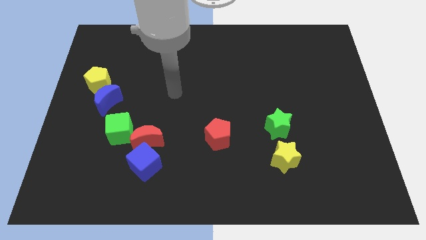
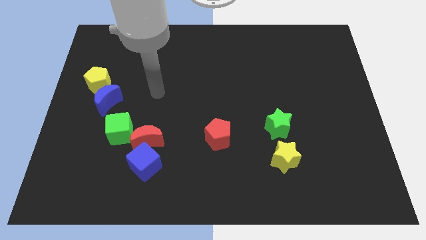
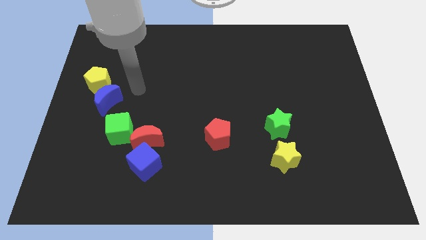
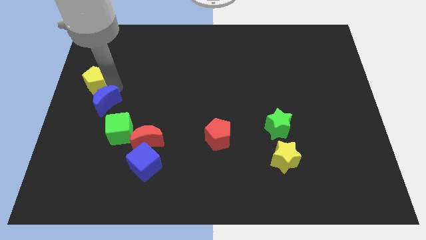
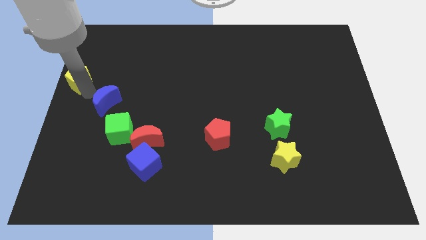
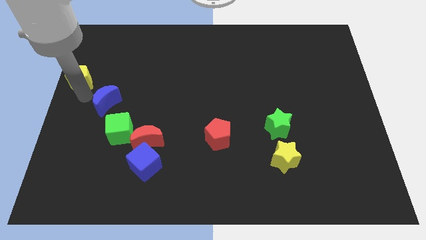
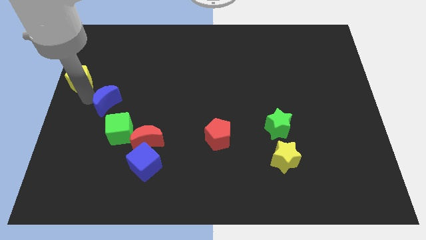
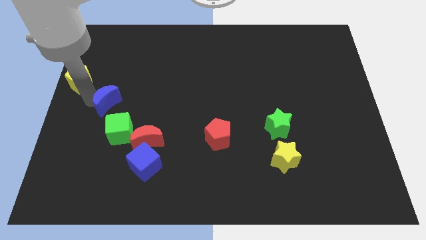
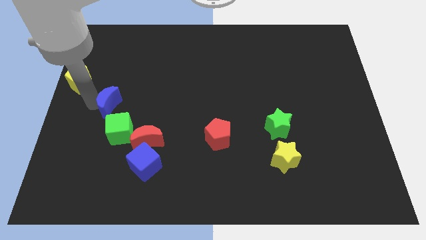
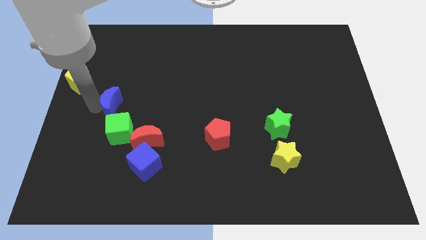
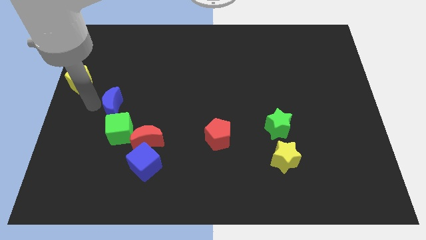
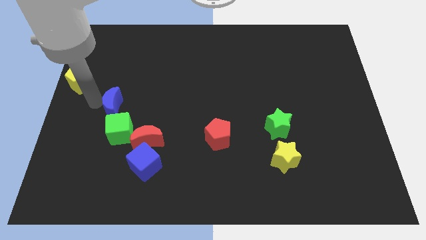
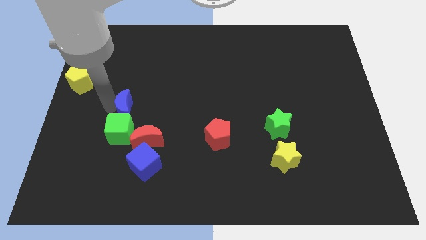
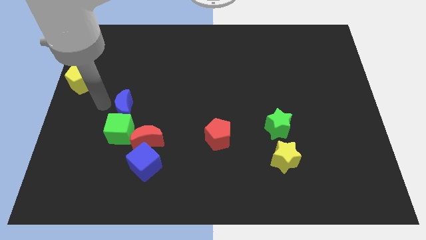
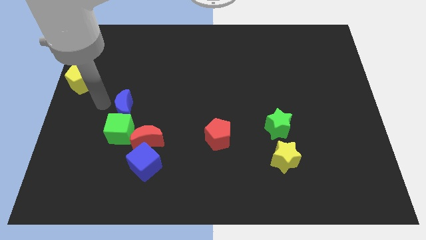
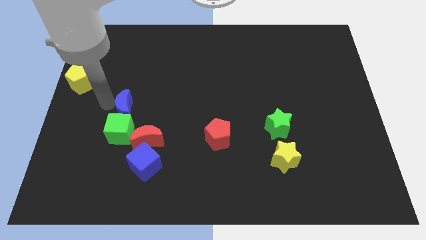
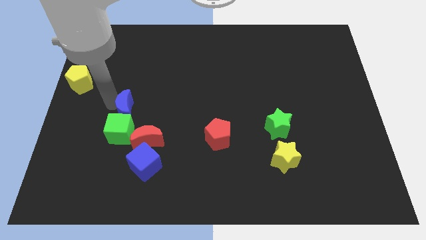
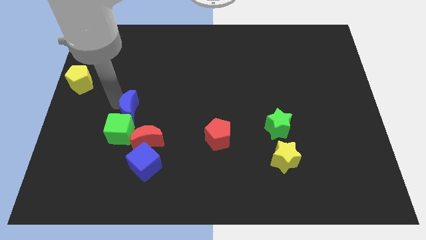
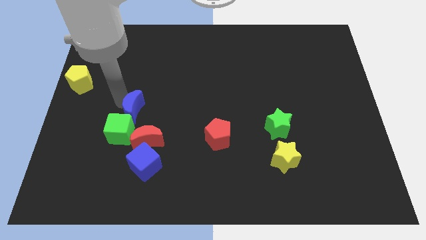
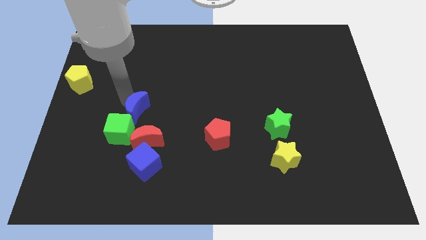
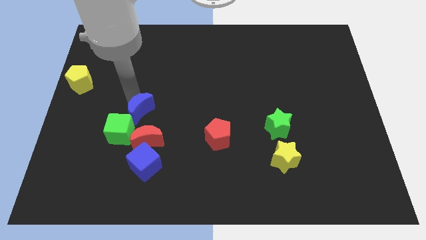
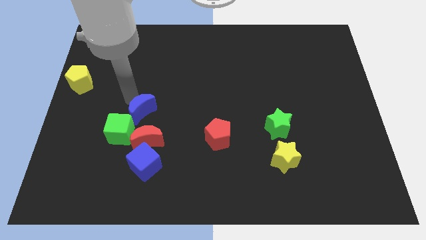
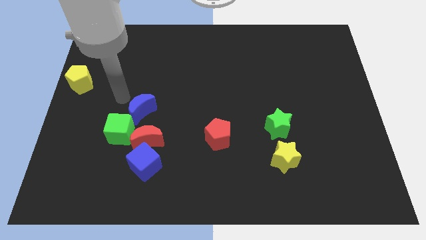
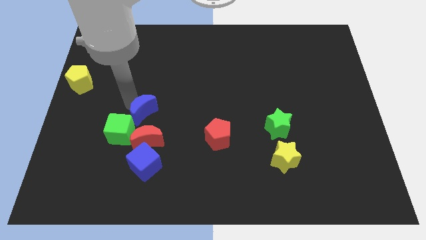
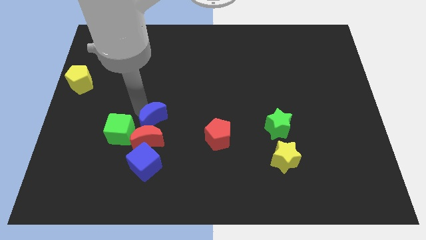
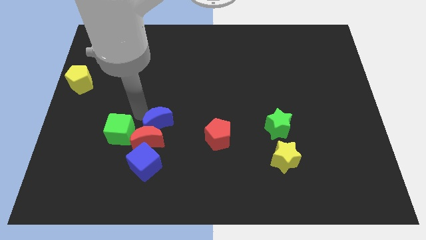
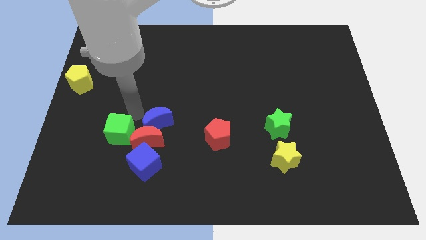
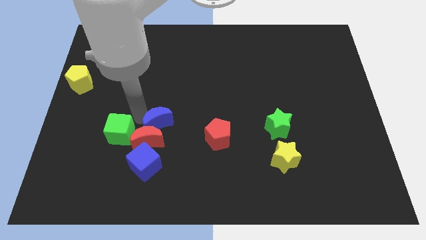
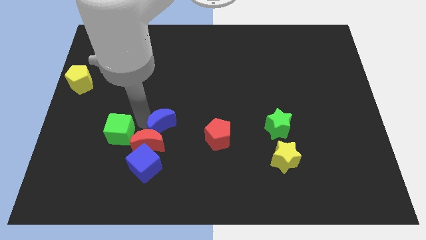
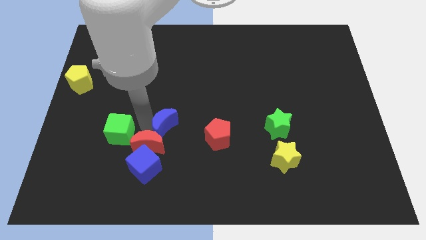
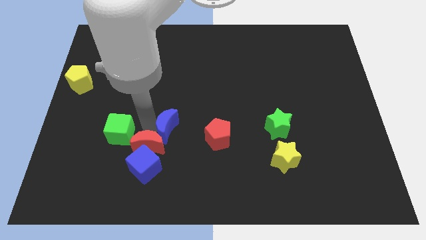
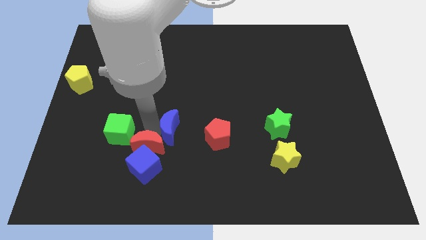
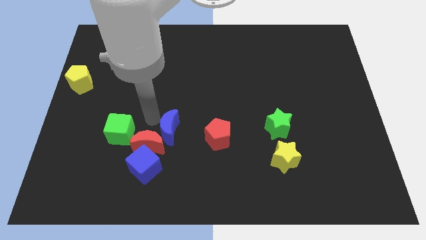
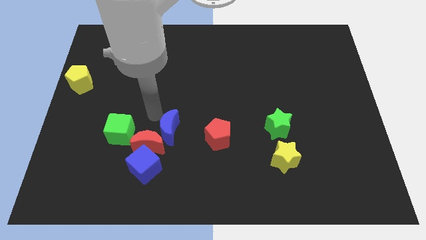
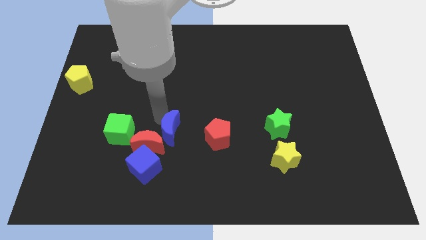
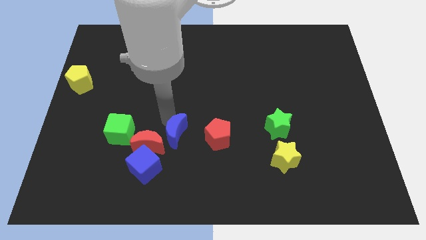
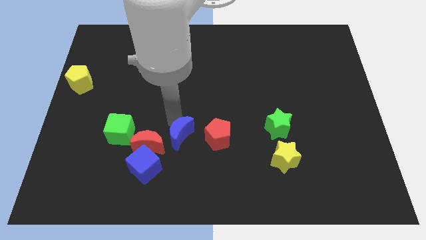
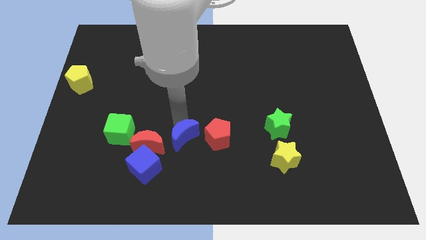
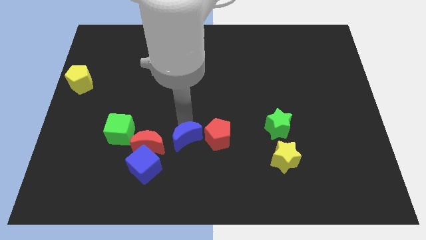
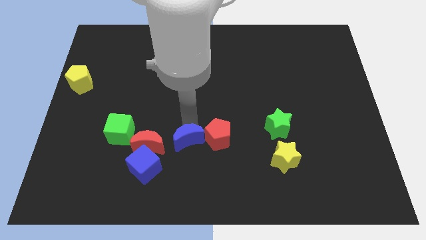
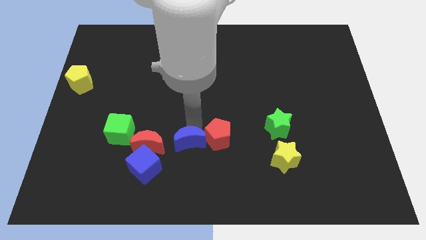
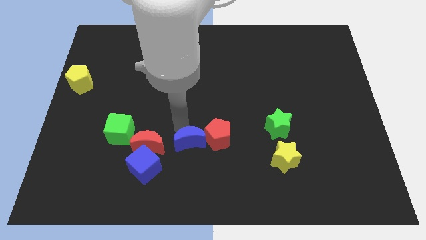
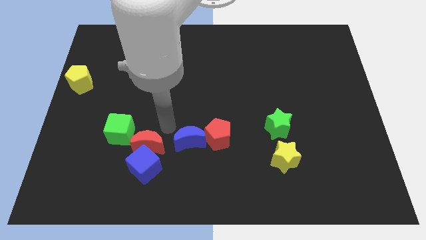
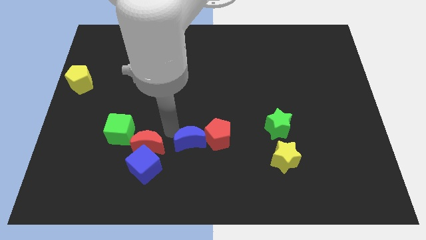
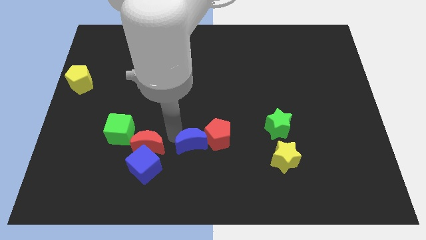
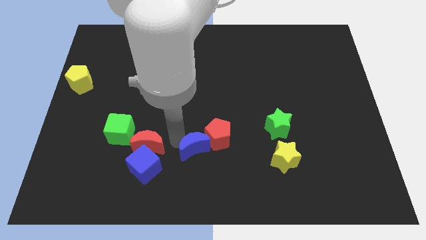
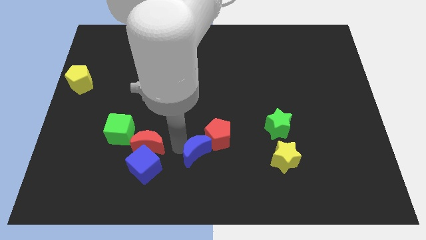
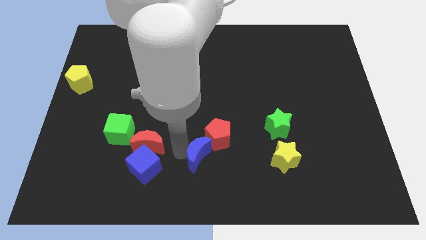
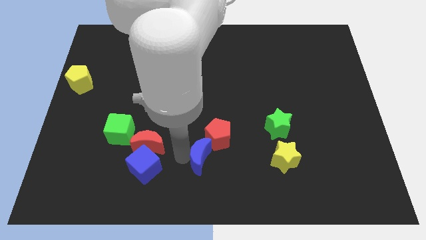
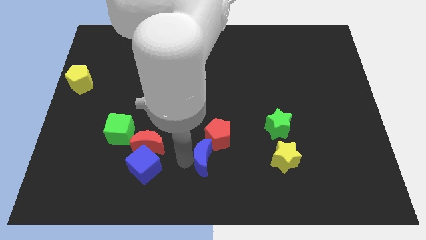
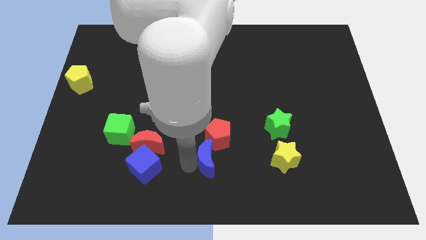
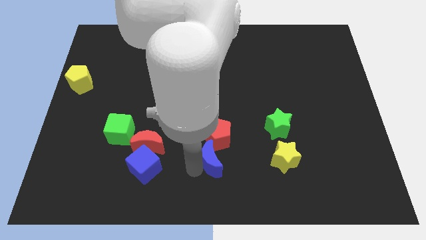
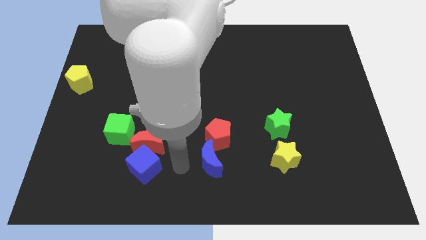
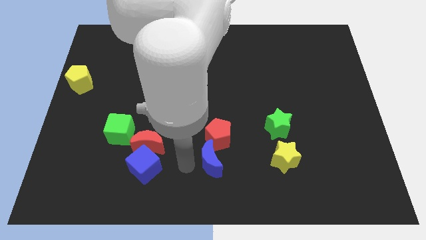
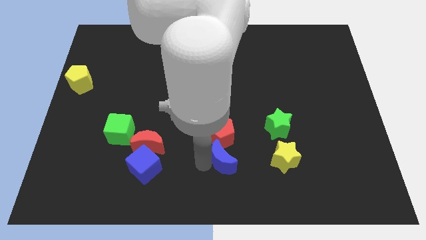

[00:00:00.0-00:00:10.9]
put the blue moon to the bottom right of the red pentagon

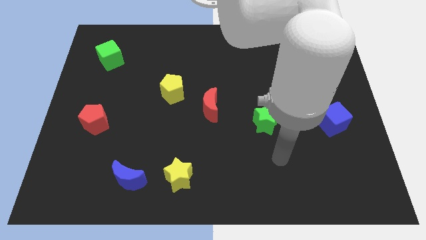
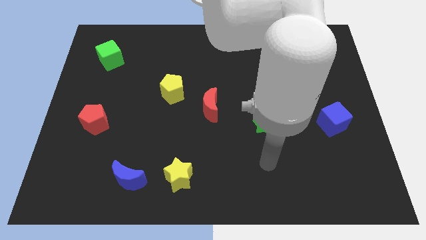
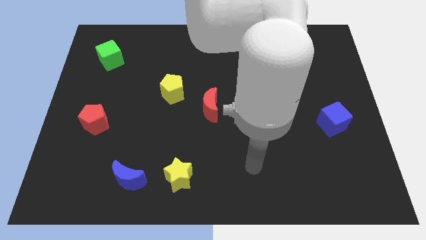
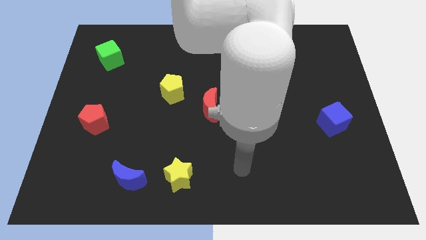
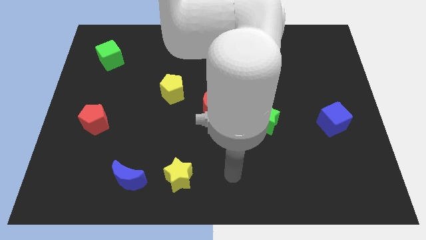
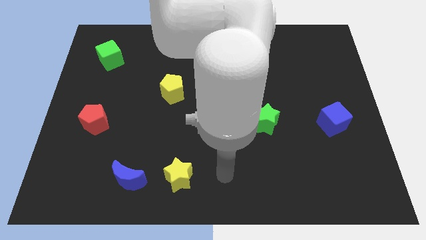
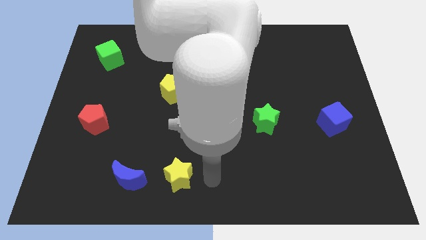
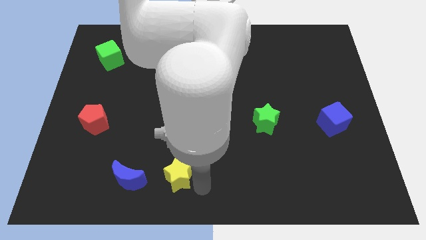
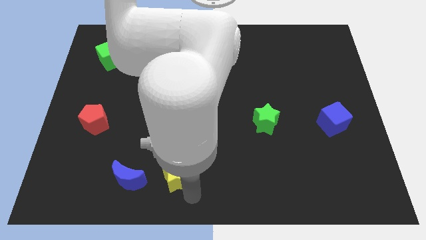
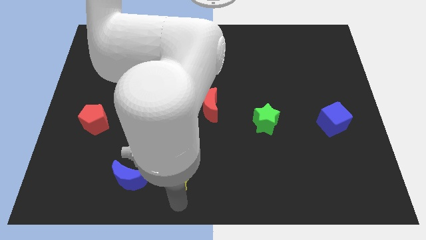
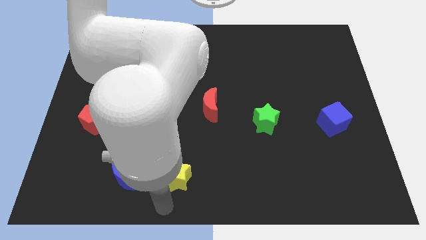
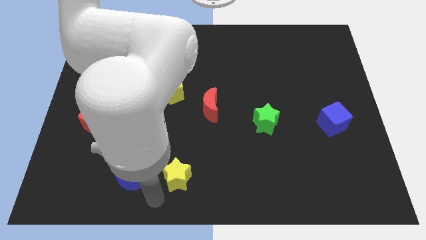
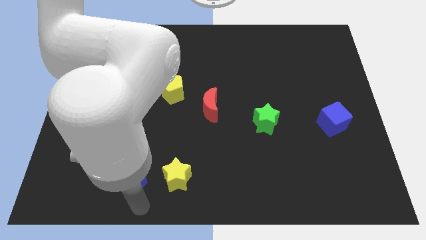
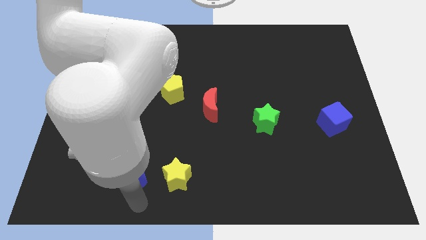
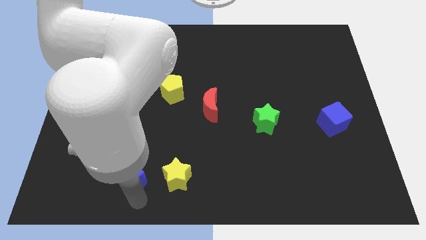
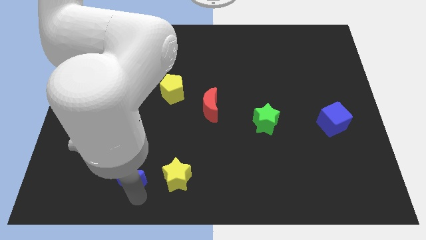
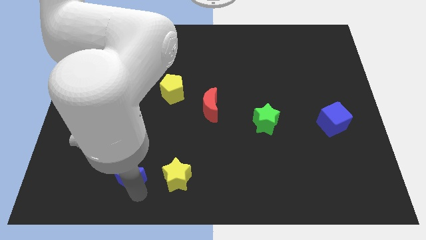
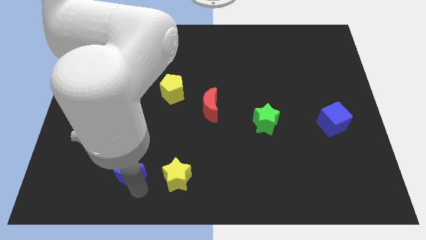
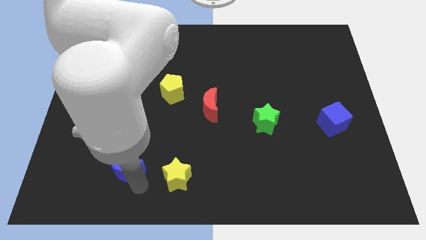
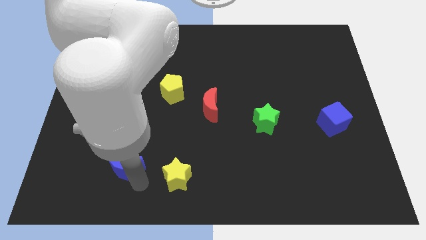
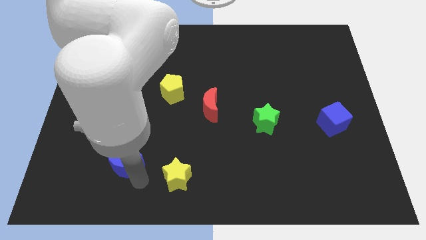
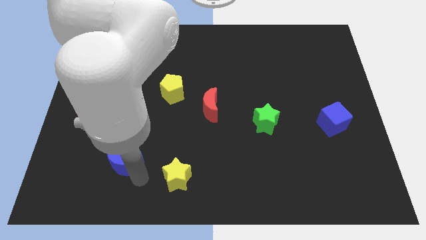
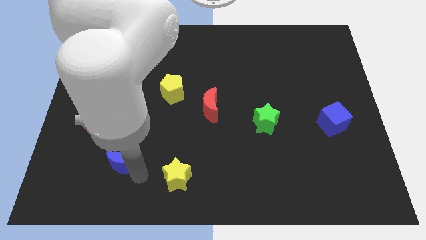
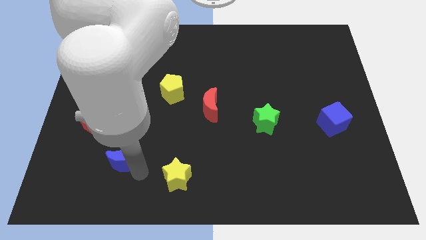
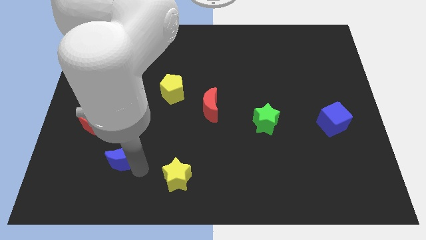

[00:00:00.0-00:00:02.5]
push the blue moon diagonally down and to the right of the red pentagon
